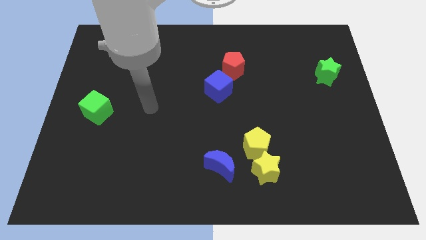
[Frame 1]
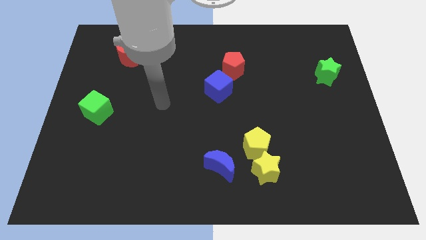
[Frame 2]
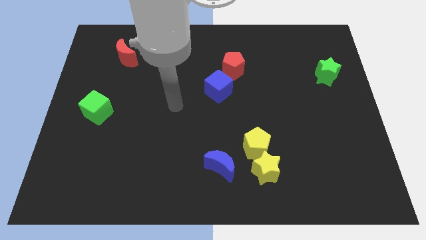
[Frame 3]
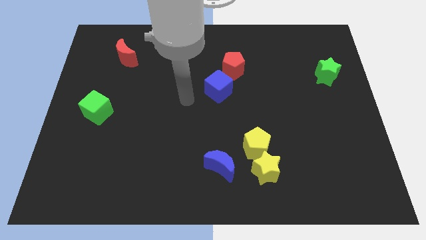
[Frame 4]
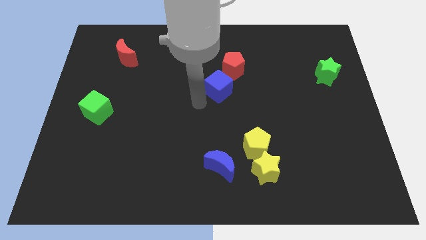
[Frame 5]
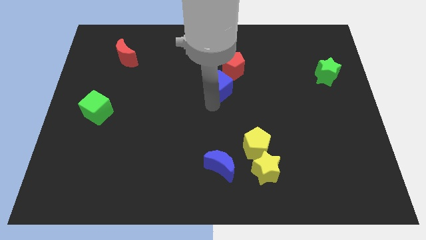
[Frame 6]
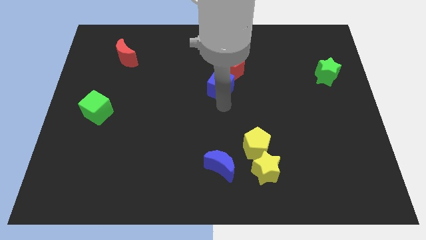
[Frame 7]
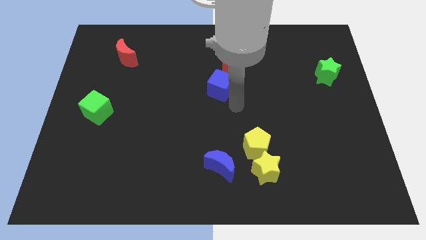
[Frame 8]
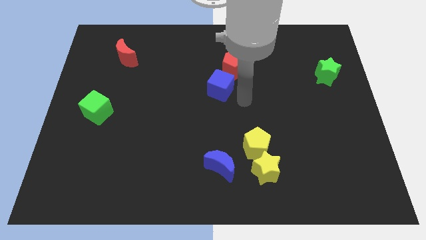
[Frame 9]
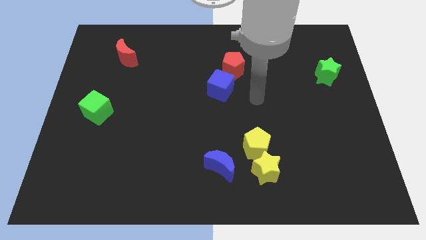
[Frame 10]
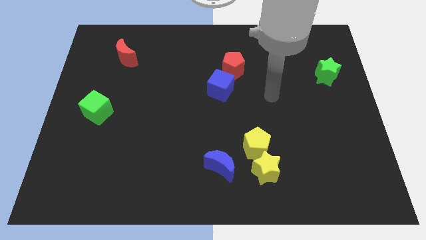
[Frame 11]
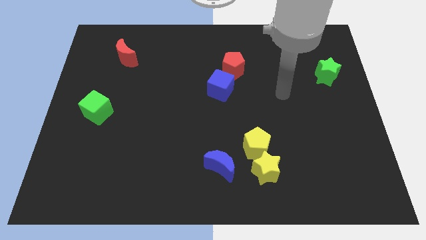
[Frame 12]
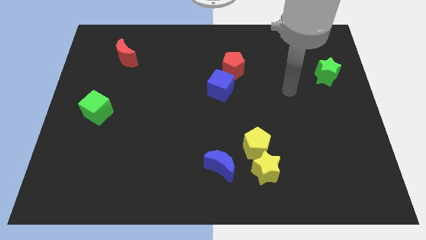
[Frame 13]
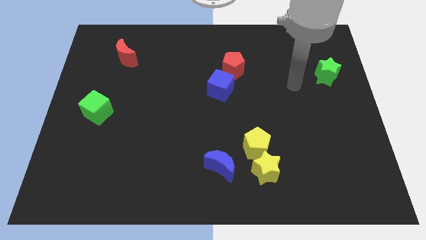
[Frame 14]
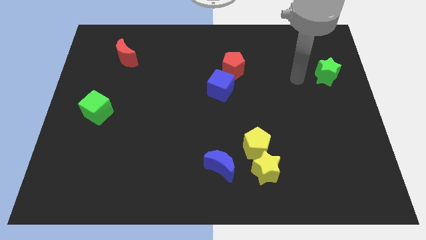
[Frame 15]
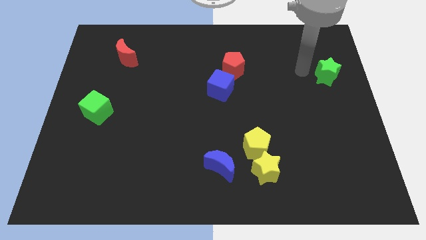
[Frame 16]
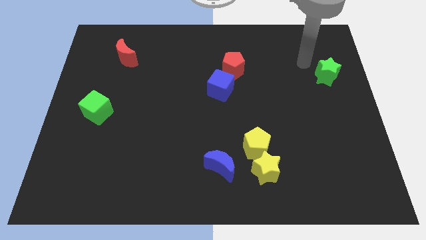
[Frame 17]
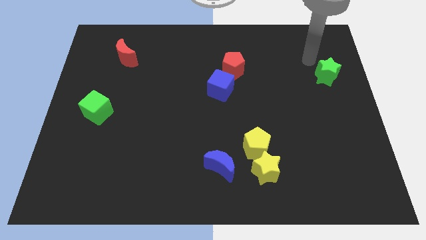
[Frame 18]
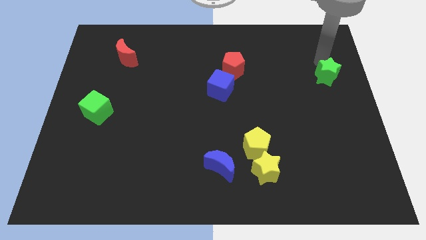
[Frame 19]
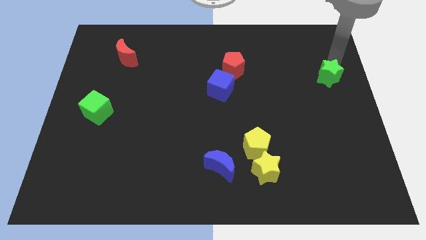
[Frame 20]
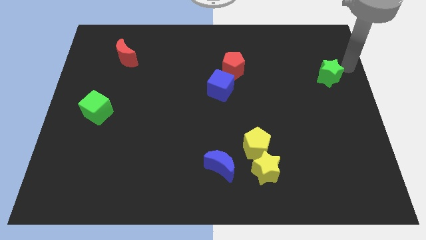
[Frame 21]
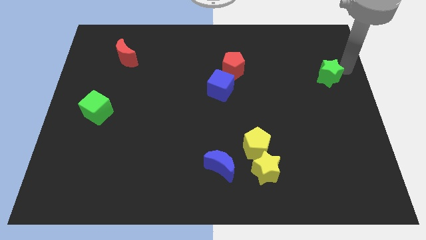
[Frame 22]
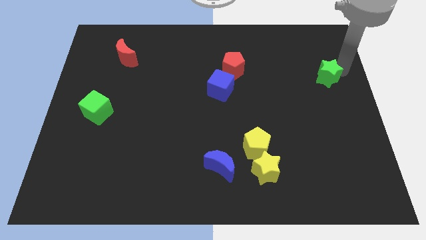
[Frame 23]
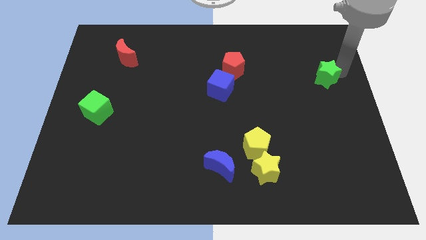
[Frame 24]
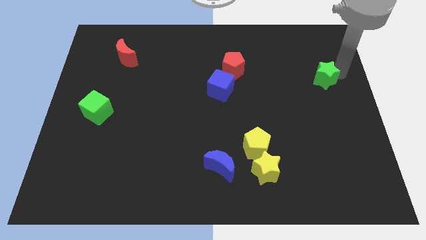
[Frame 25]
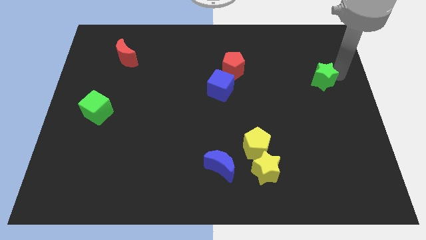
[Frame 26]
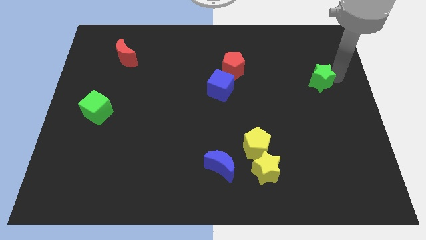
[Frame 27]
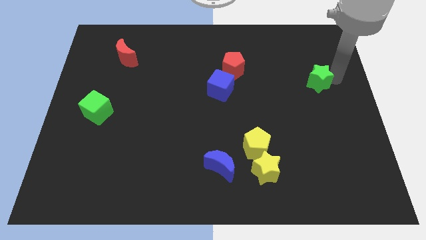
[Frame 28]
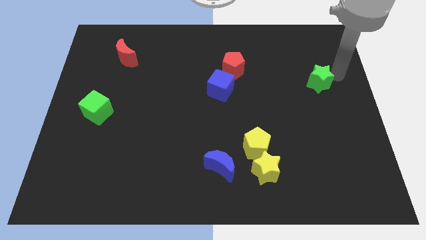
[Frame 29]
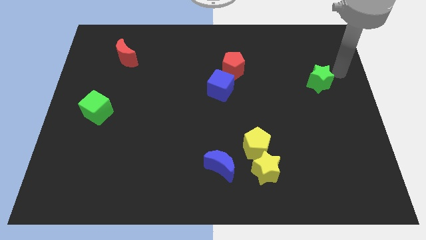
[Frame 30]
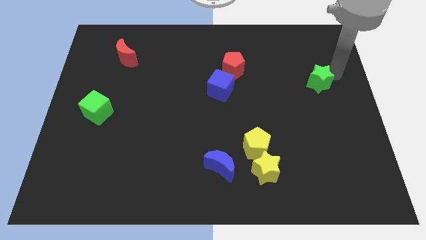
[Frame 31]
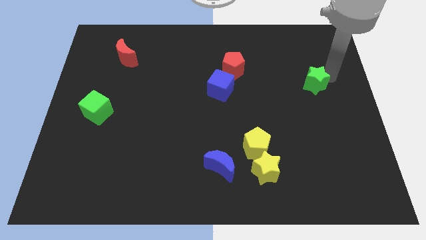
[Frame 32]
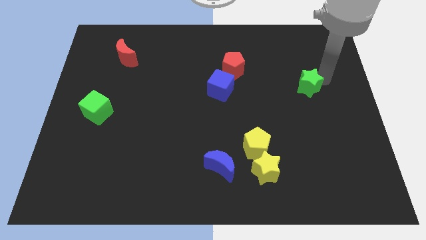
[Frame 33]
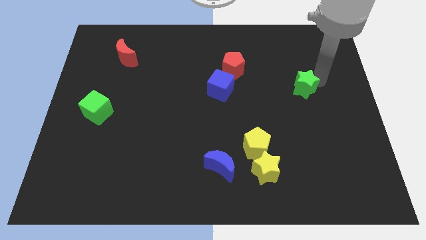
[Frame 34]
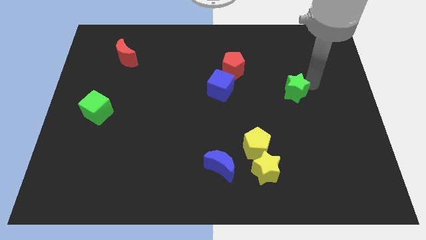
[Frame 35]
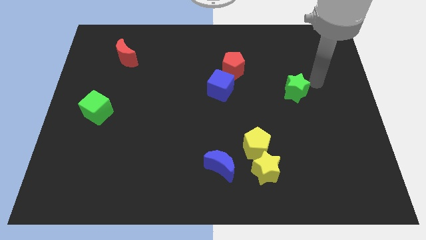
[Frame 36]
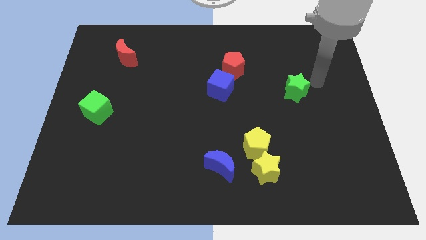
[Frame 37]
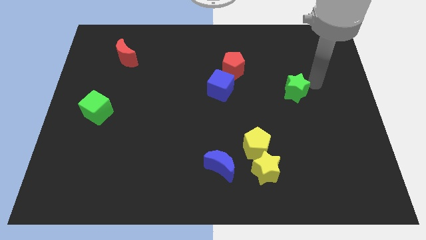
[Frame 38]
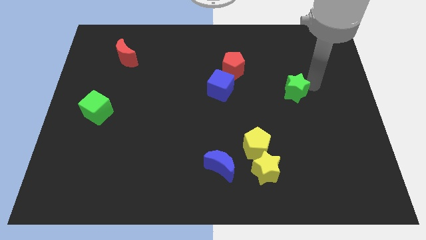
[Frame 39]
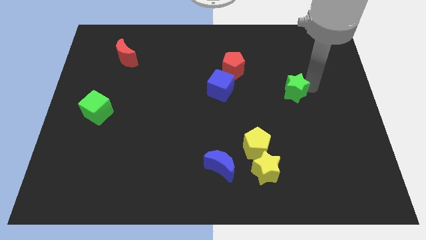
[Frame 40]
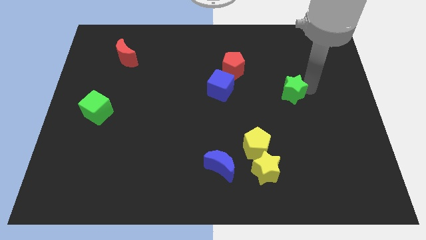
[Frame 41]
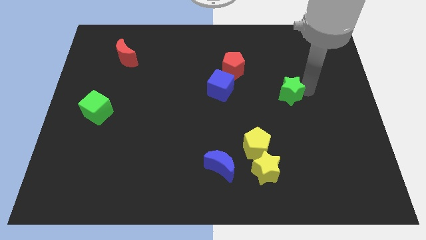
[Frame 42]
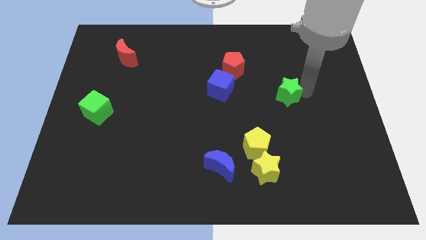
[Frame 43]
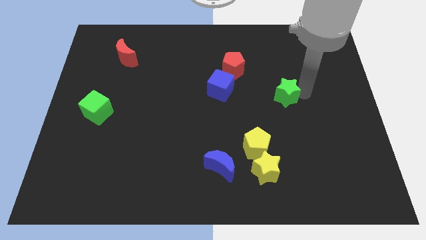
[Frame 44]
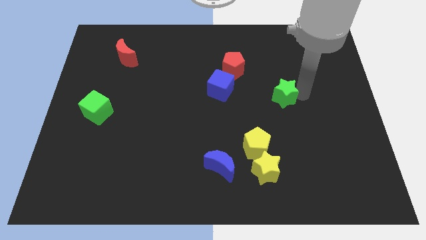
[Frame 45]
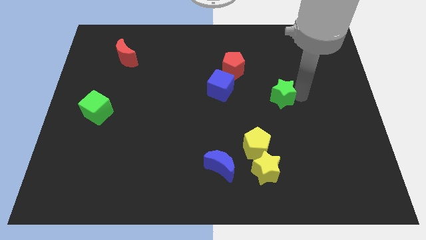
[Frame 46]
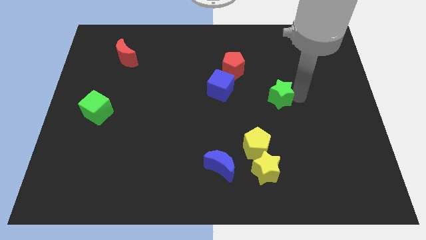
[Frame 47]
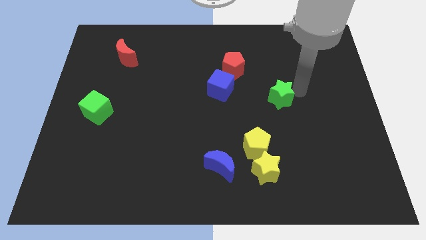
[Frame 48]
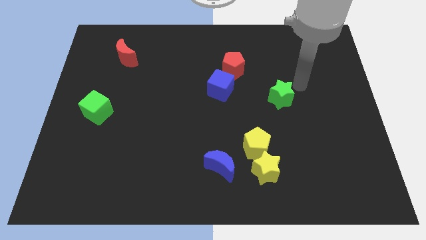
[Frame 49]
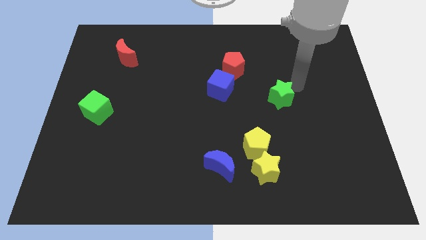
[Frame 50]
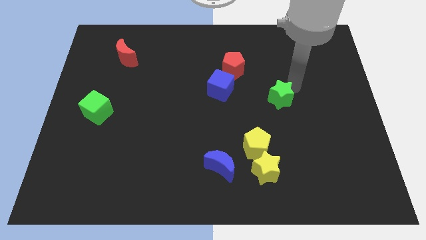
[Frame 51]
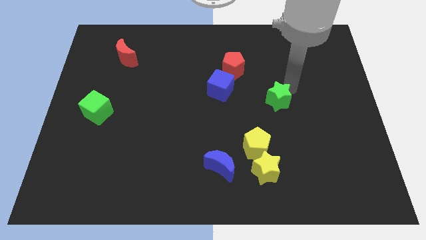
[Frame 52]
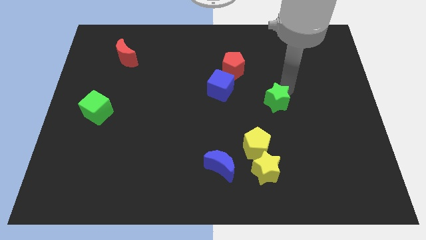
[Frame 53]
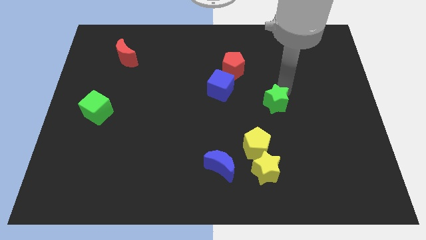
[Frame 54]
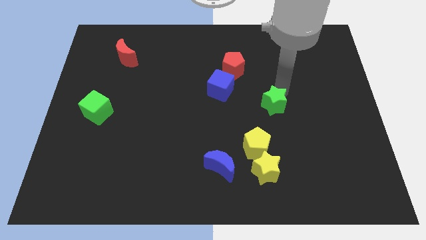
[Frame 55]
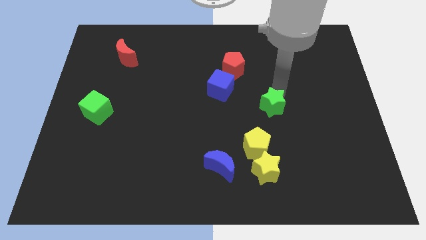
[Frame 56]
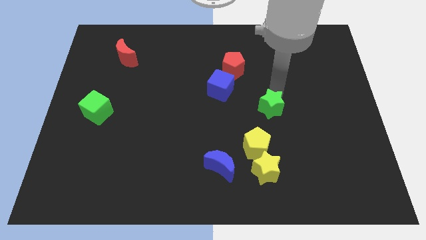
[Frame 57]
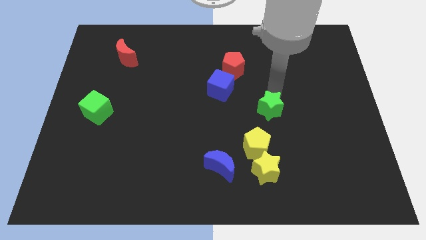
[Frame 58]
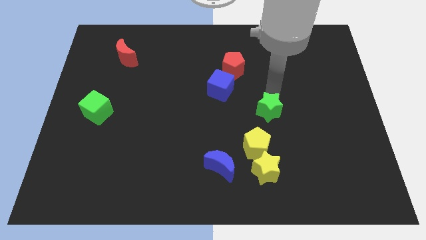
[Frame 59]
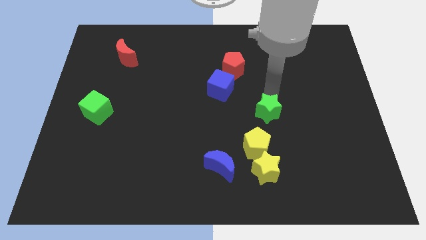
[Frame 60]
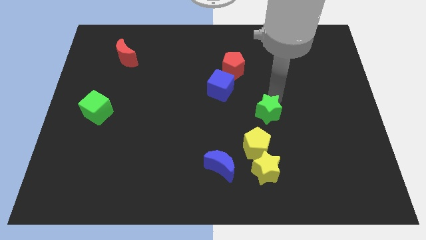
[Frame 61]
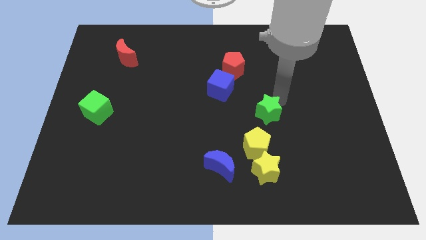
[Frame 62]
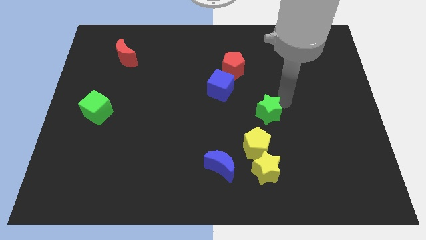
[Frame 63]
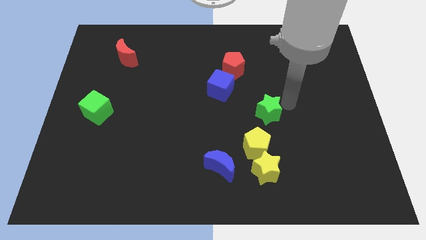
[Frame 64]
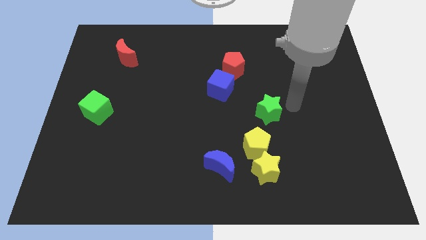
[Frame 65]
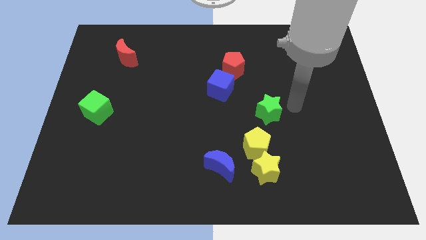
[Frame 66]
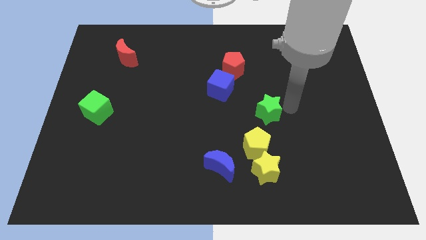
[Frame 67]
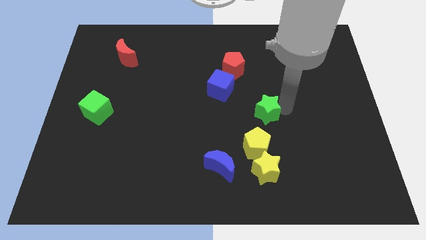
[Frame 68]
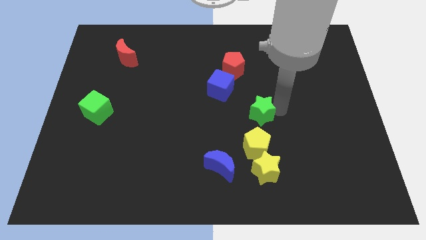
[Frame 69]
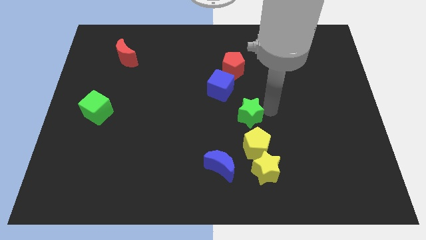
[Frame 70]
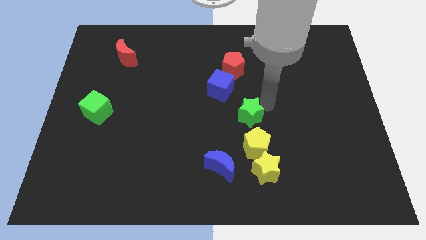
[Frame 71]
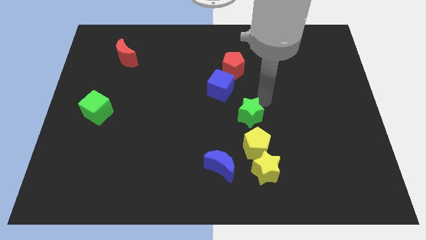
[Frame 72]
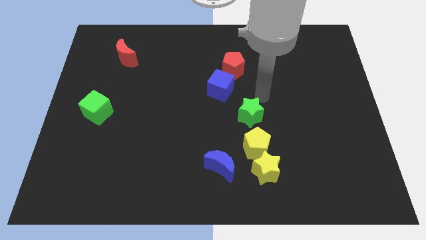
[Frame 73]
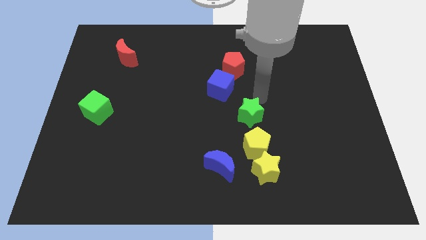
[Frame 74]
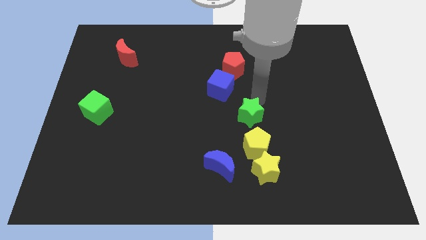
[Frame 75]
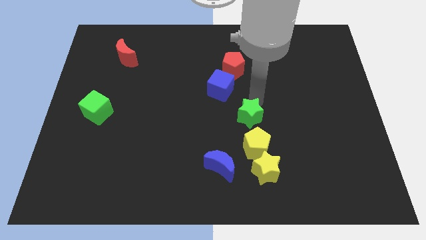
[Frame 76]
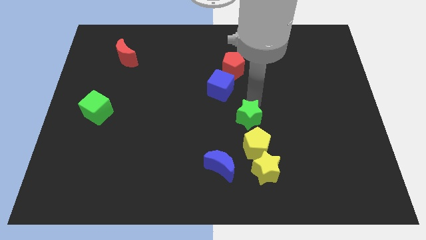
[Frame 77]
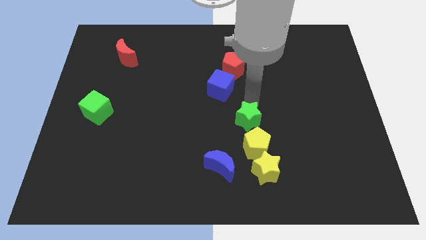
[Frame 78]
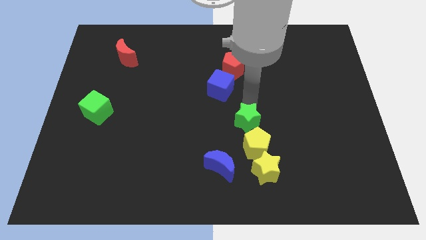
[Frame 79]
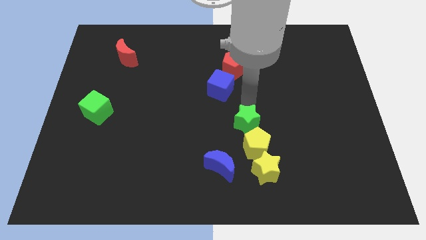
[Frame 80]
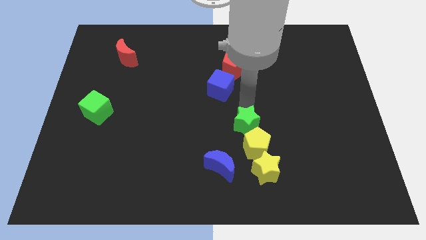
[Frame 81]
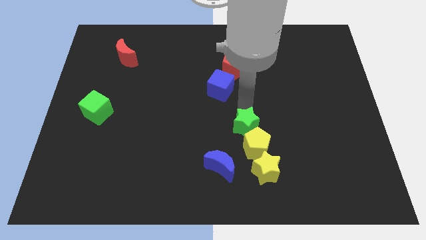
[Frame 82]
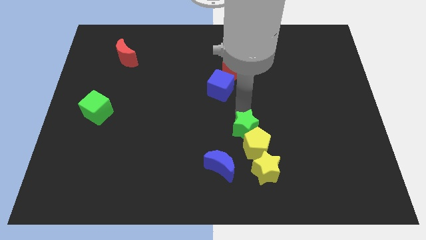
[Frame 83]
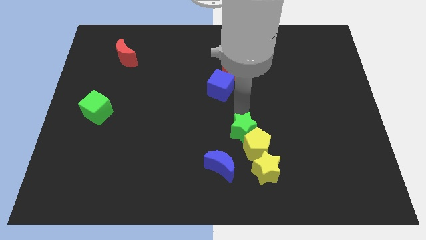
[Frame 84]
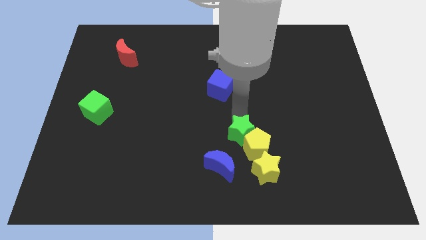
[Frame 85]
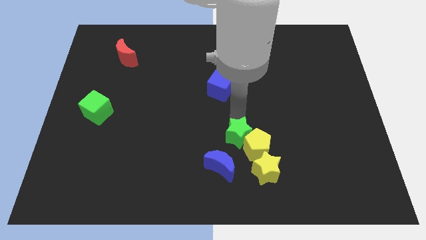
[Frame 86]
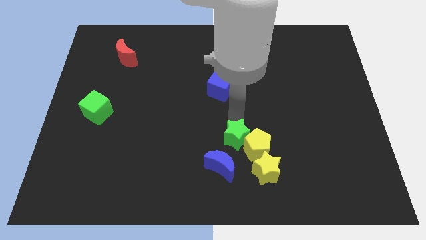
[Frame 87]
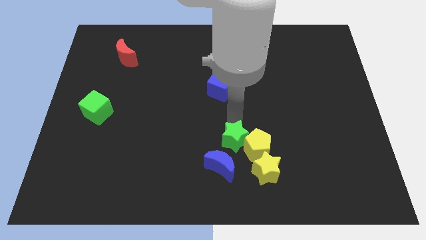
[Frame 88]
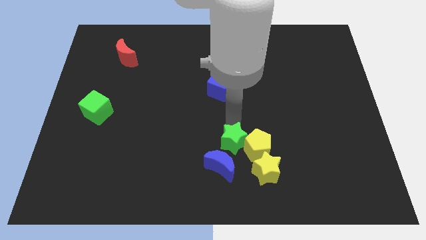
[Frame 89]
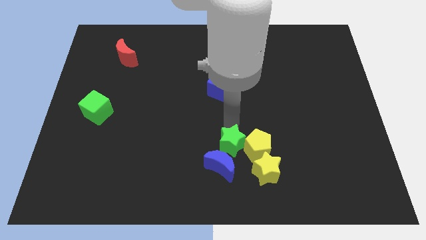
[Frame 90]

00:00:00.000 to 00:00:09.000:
slide the green star to the blue moon
